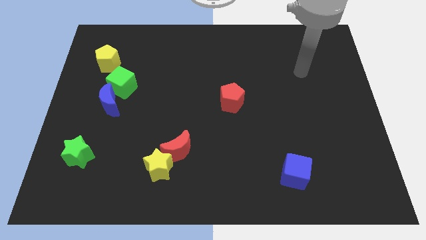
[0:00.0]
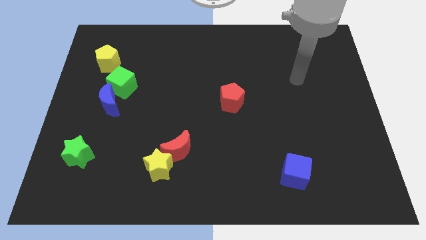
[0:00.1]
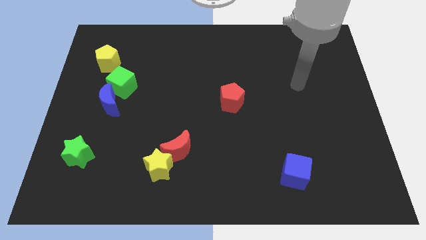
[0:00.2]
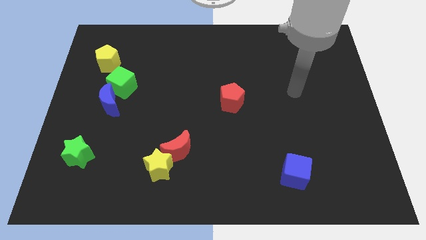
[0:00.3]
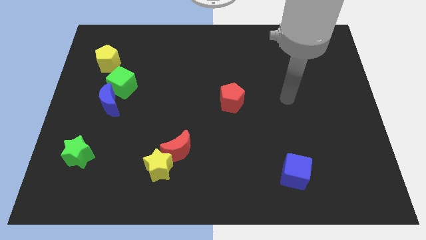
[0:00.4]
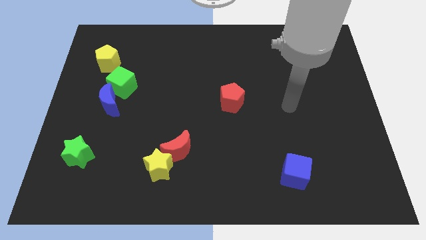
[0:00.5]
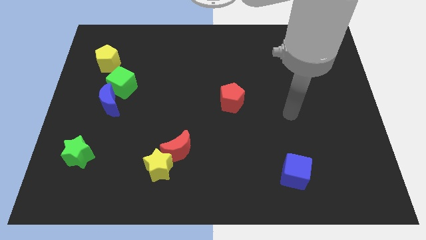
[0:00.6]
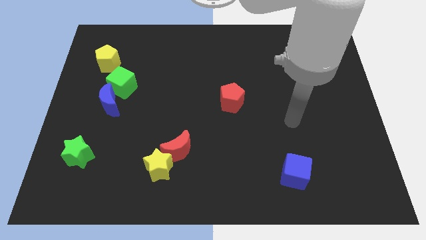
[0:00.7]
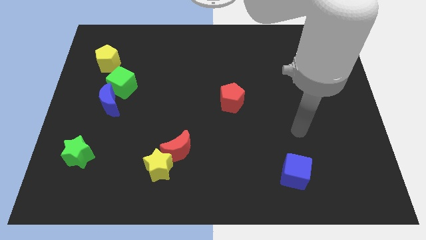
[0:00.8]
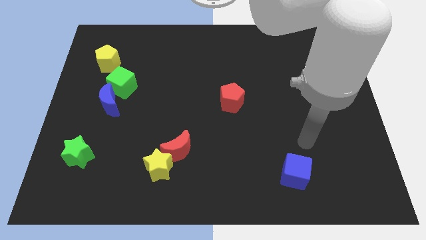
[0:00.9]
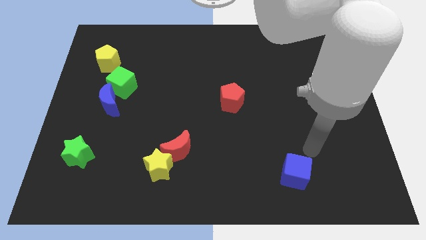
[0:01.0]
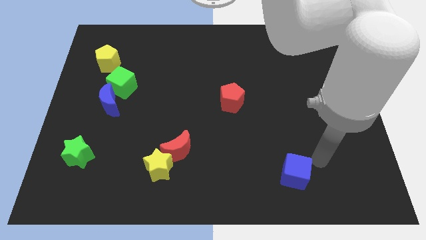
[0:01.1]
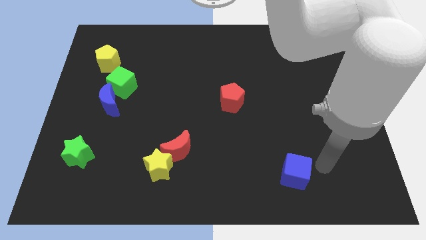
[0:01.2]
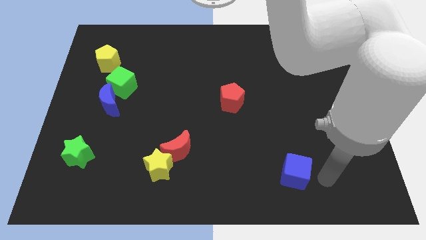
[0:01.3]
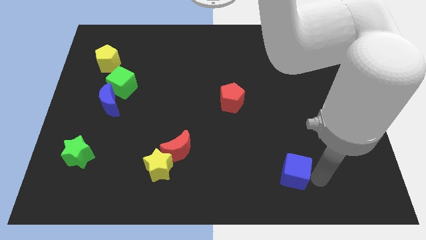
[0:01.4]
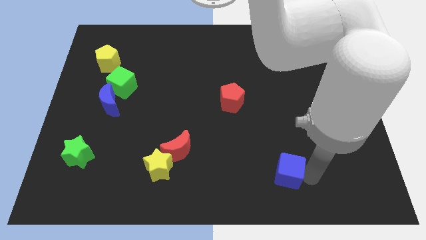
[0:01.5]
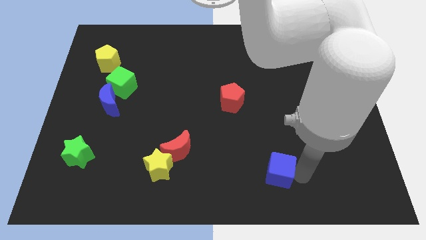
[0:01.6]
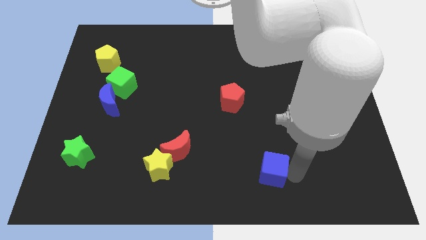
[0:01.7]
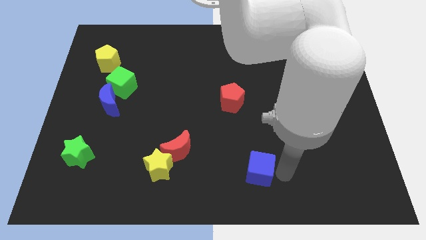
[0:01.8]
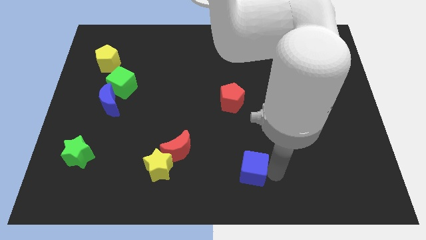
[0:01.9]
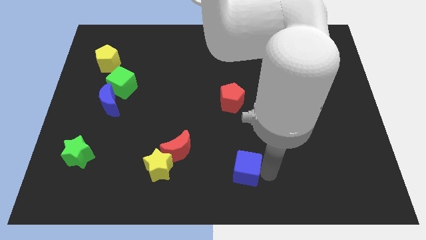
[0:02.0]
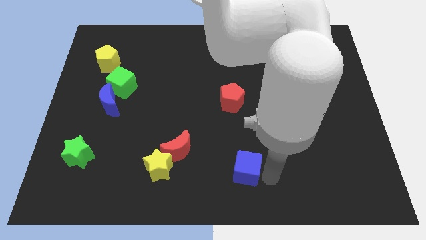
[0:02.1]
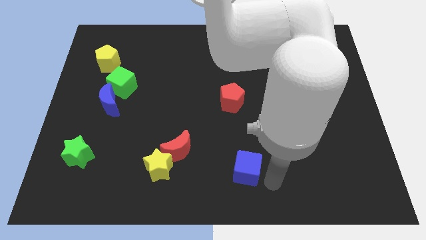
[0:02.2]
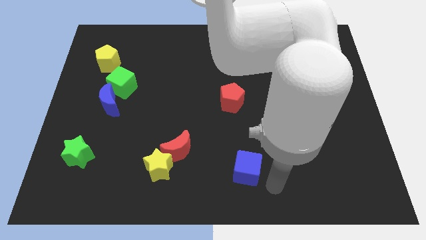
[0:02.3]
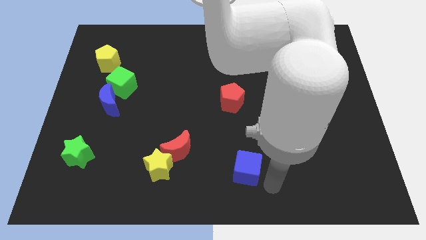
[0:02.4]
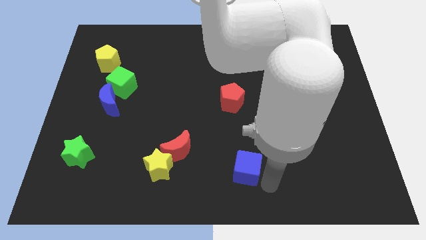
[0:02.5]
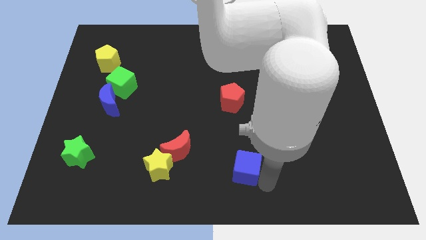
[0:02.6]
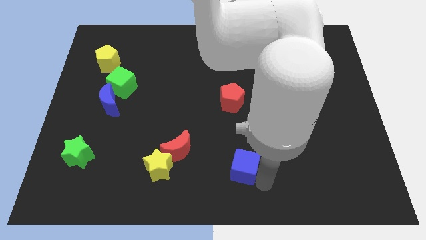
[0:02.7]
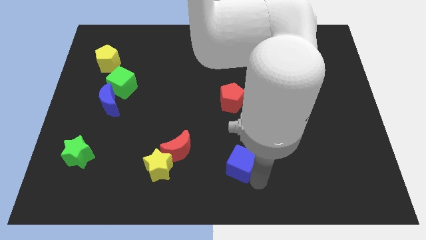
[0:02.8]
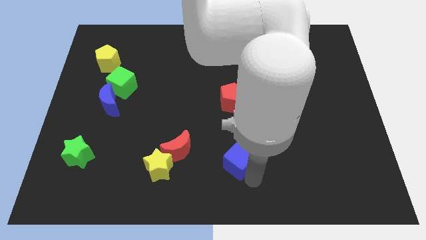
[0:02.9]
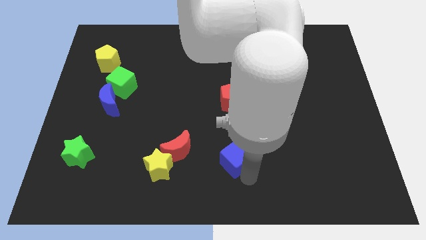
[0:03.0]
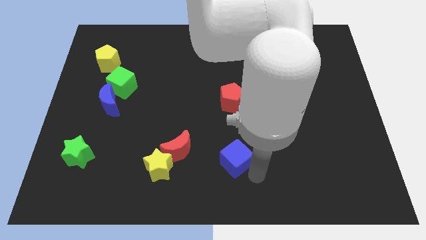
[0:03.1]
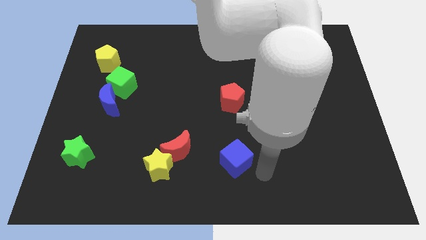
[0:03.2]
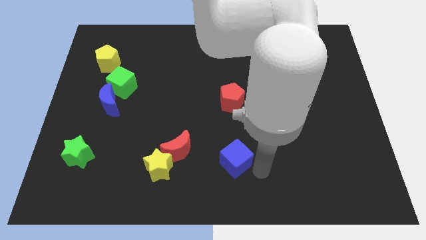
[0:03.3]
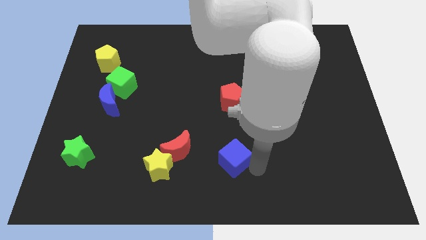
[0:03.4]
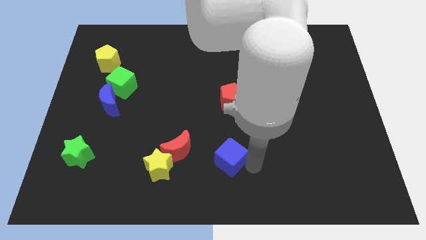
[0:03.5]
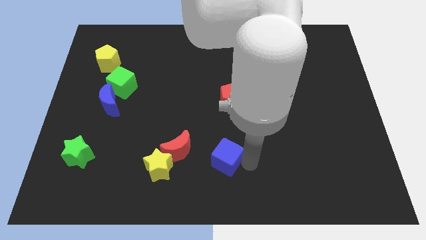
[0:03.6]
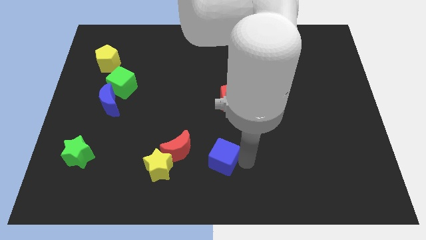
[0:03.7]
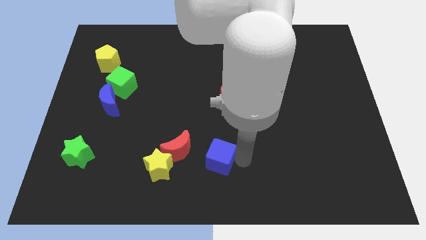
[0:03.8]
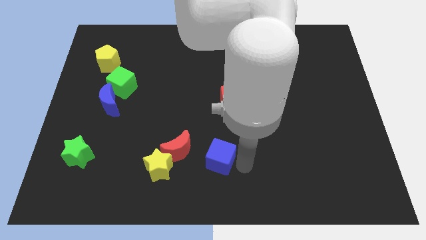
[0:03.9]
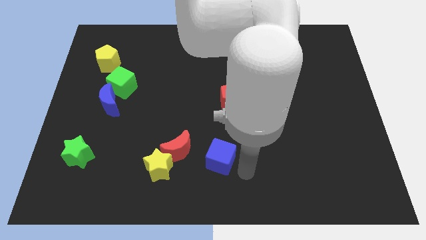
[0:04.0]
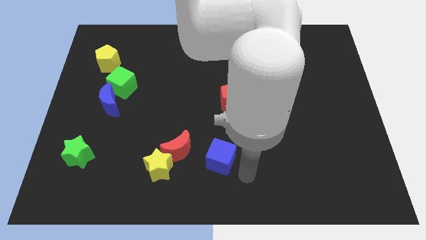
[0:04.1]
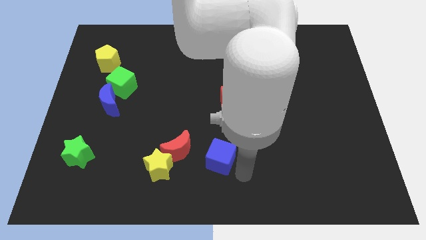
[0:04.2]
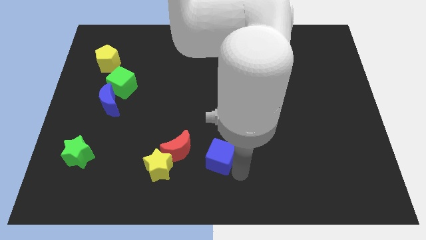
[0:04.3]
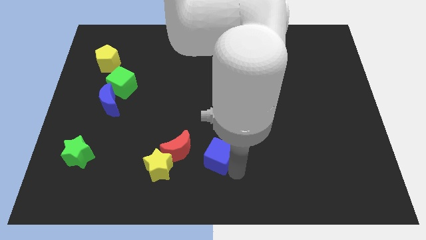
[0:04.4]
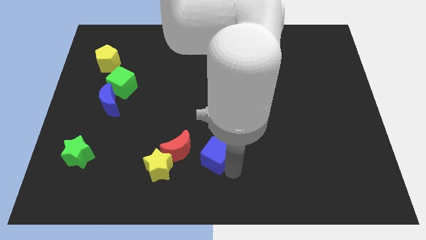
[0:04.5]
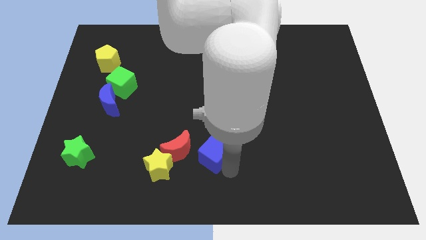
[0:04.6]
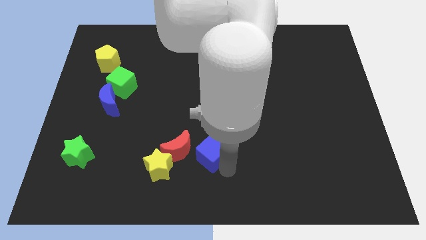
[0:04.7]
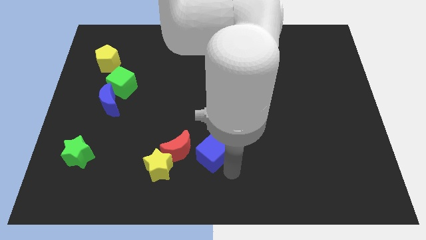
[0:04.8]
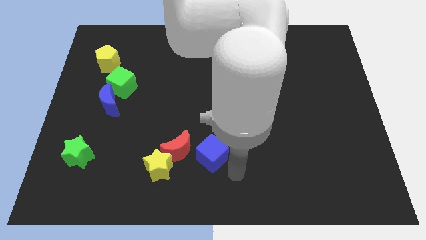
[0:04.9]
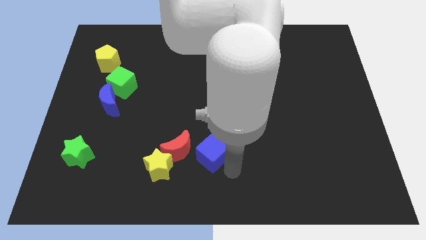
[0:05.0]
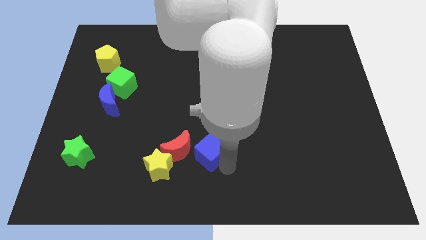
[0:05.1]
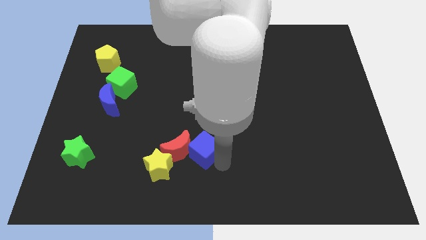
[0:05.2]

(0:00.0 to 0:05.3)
move the blue cube close to the red moon

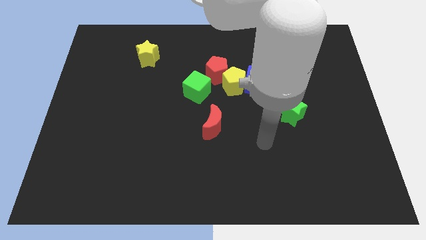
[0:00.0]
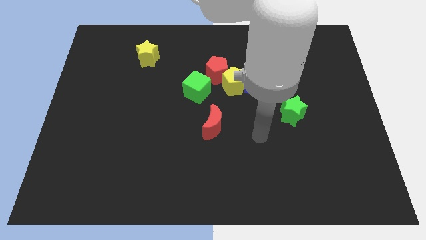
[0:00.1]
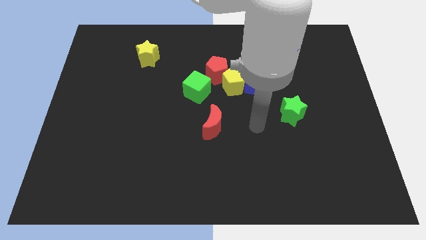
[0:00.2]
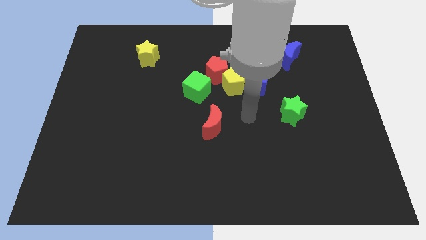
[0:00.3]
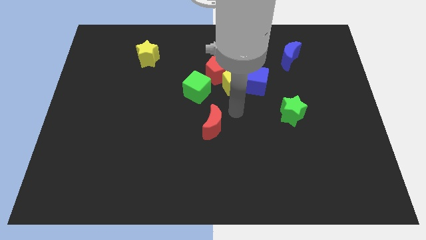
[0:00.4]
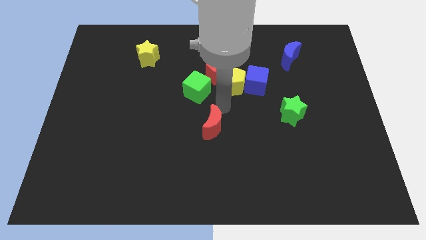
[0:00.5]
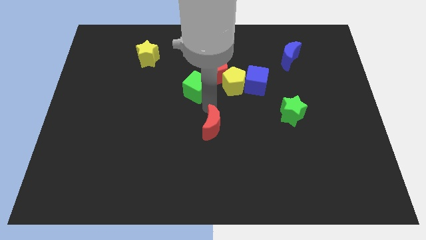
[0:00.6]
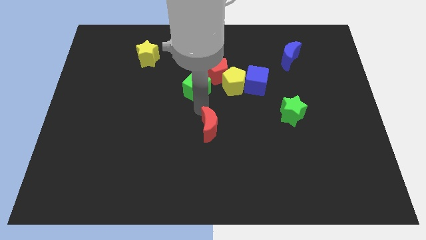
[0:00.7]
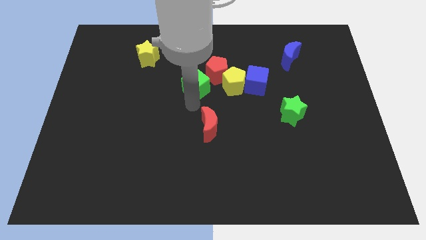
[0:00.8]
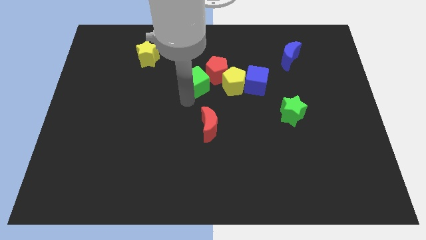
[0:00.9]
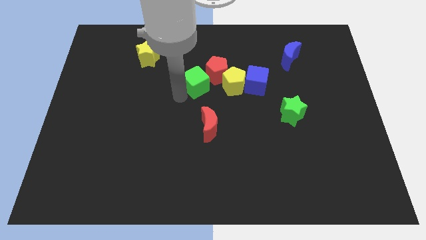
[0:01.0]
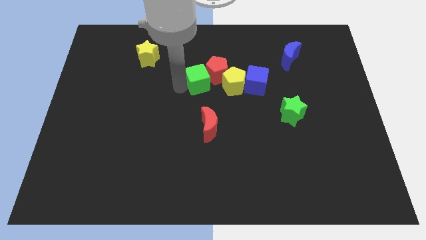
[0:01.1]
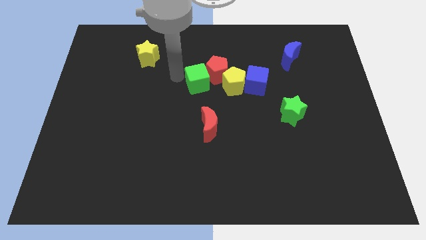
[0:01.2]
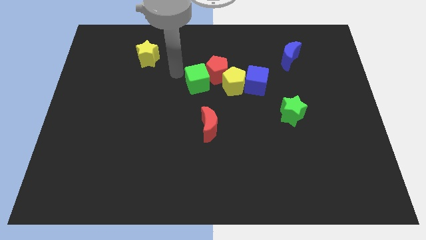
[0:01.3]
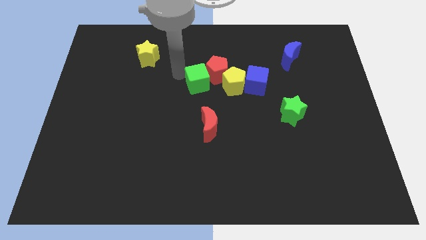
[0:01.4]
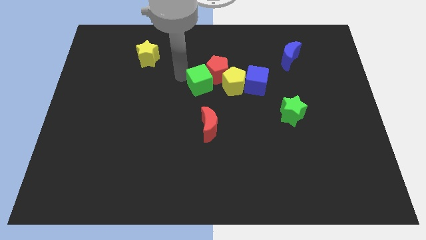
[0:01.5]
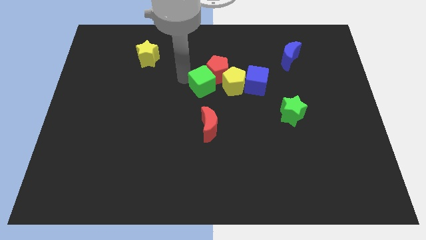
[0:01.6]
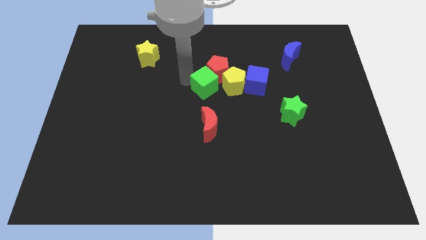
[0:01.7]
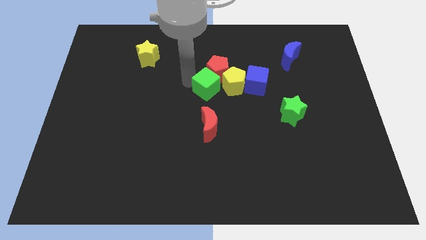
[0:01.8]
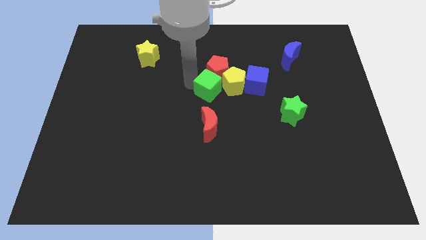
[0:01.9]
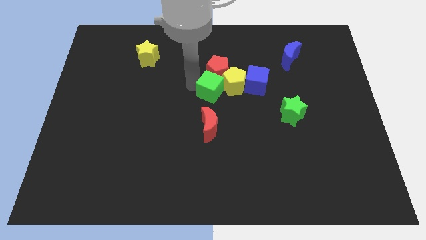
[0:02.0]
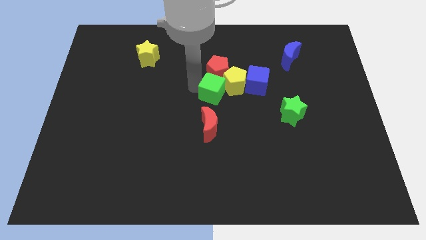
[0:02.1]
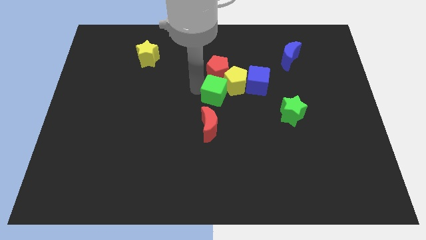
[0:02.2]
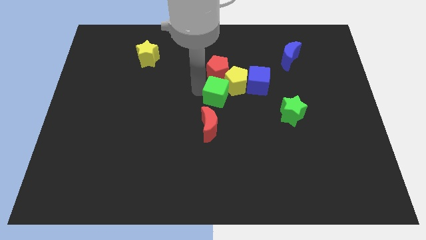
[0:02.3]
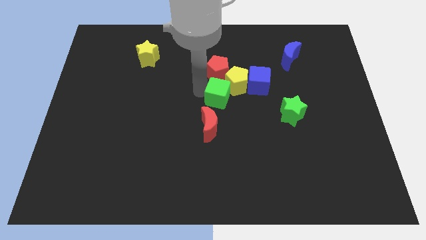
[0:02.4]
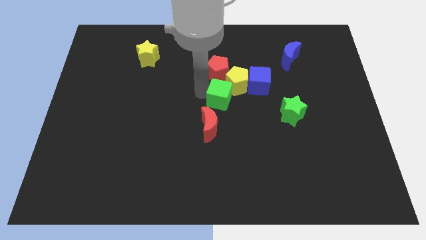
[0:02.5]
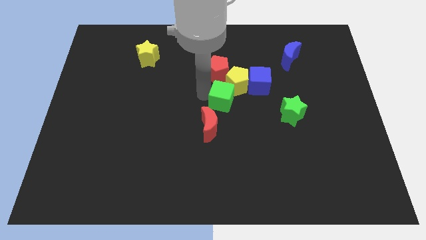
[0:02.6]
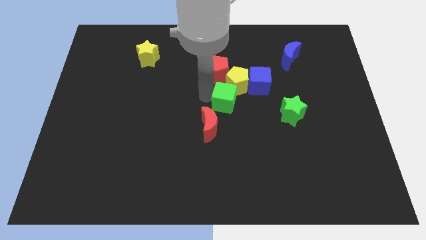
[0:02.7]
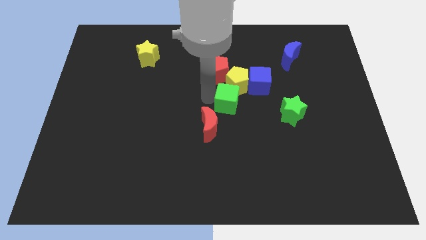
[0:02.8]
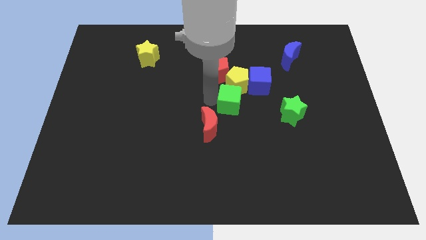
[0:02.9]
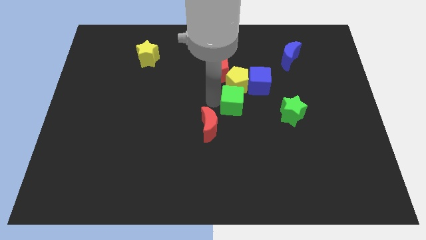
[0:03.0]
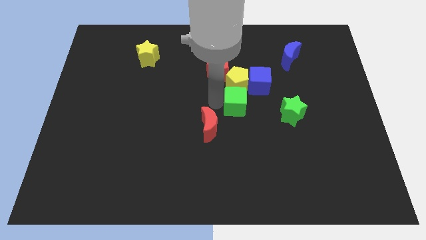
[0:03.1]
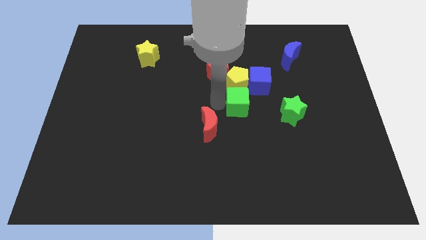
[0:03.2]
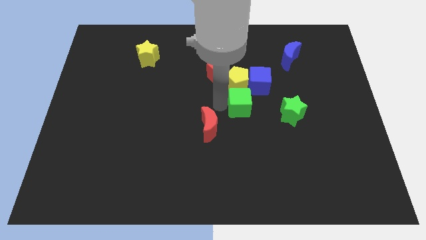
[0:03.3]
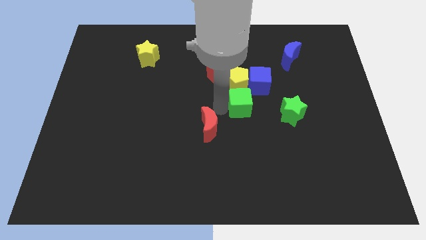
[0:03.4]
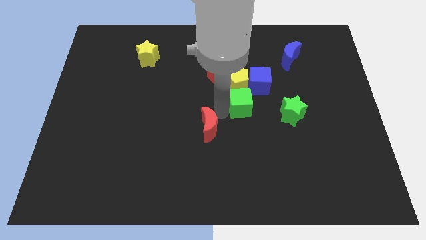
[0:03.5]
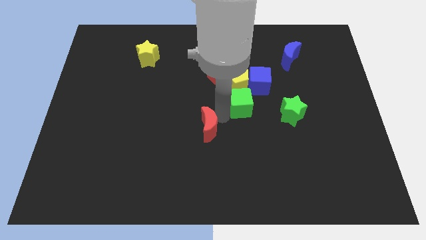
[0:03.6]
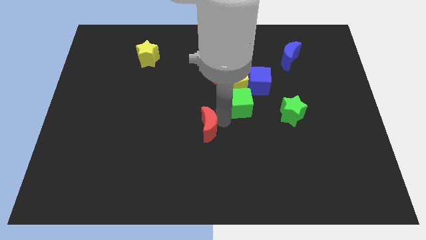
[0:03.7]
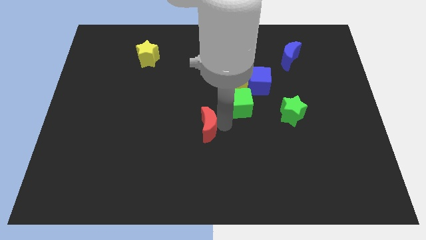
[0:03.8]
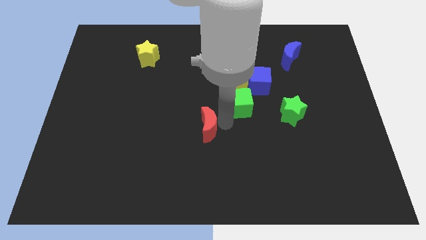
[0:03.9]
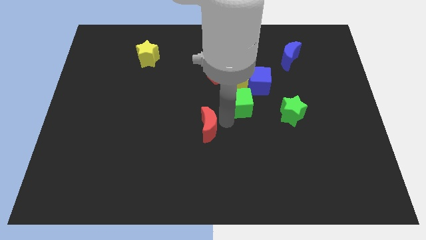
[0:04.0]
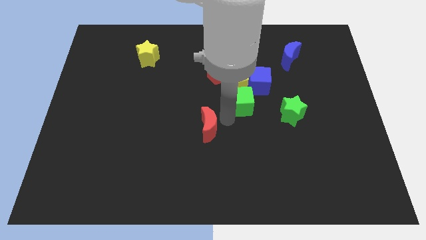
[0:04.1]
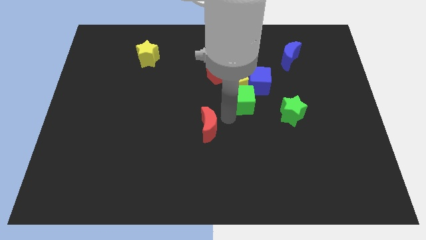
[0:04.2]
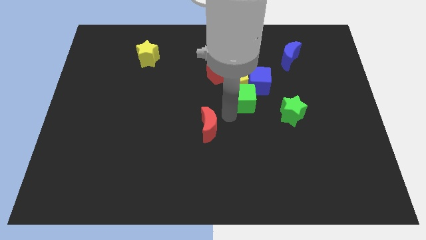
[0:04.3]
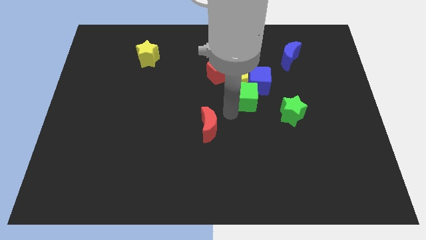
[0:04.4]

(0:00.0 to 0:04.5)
move the green cube next to the blue cube
